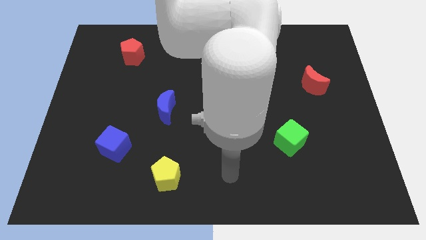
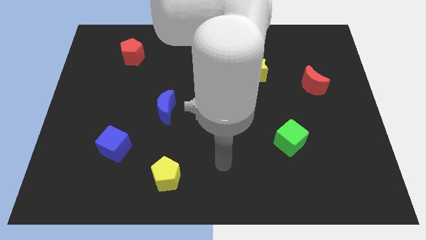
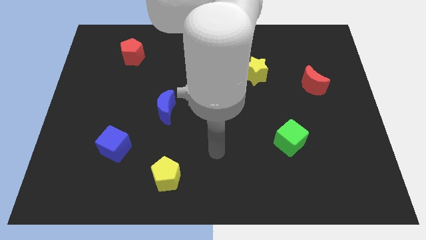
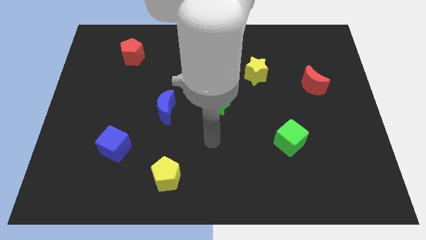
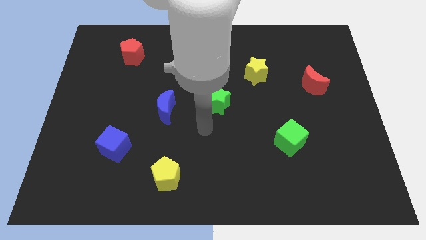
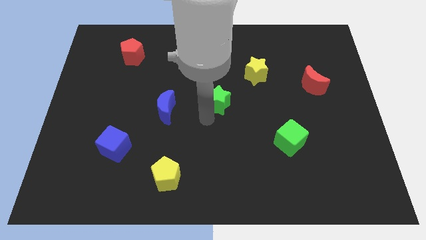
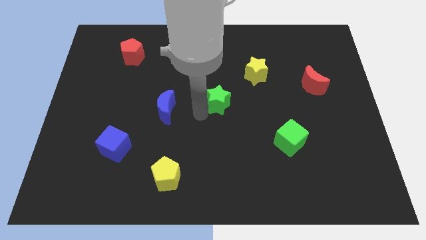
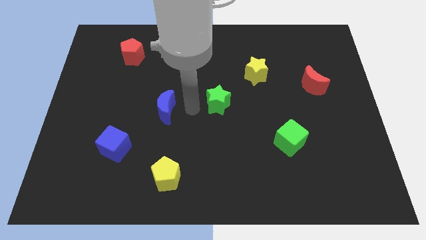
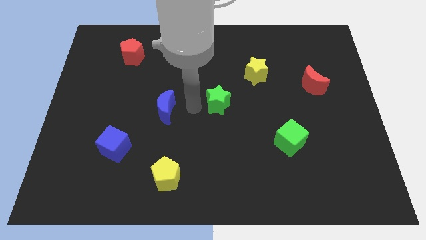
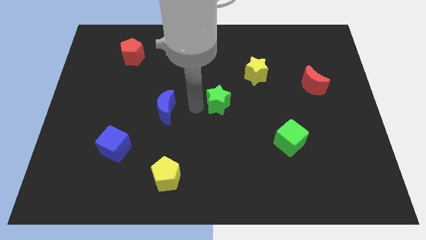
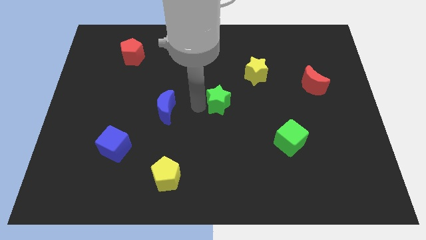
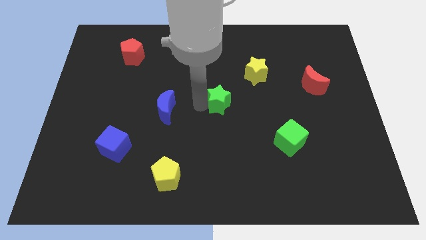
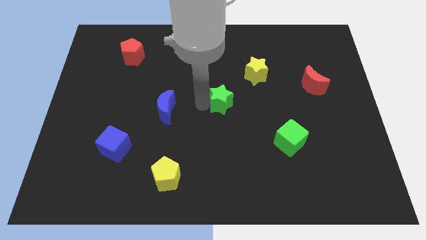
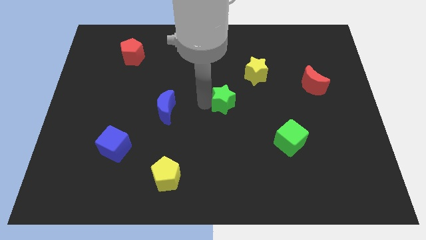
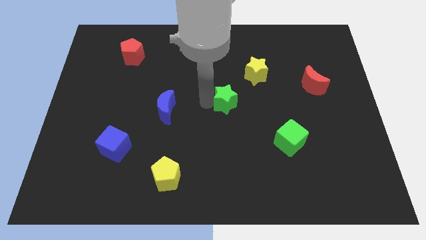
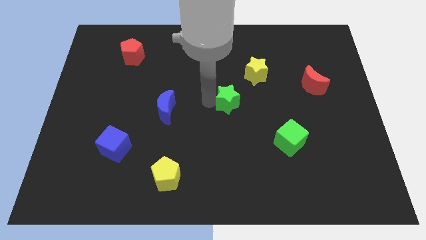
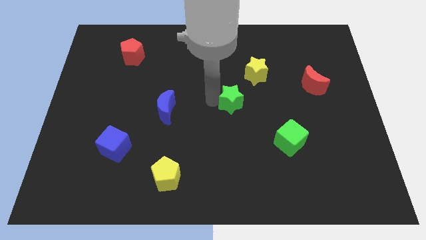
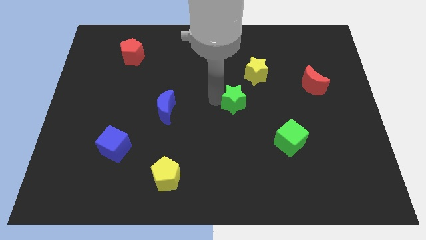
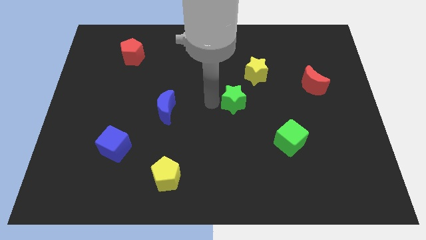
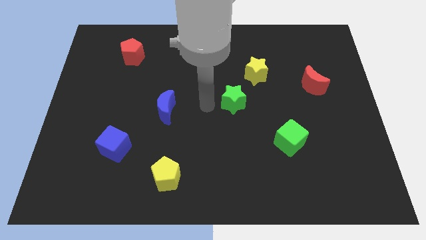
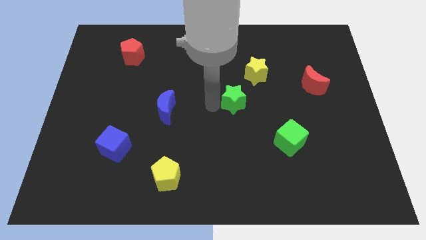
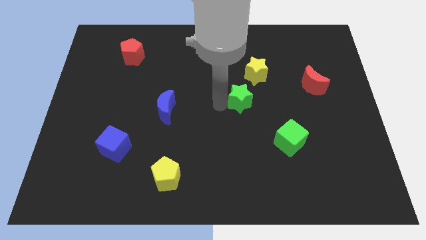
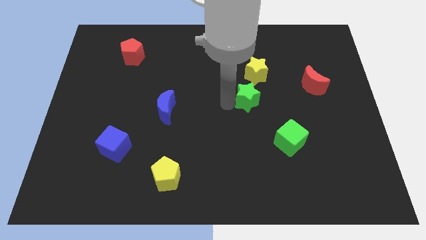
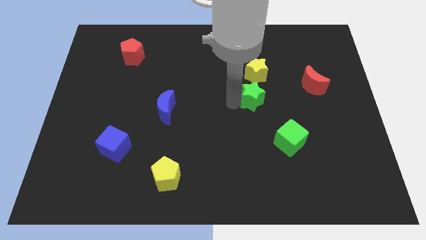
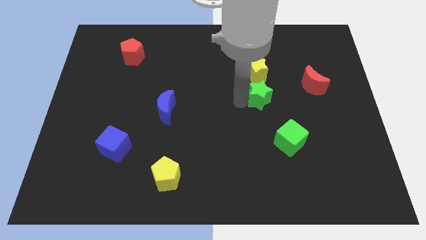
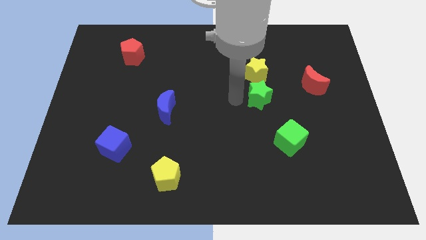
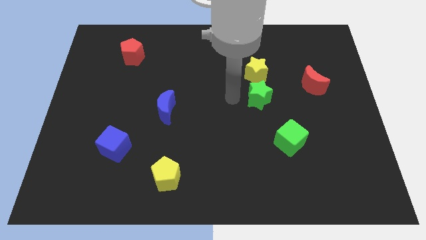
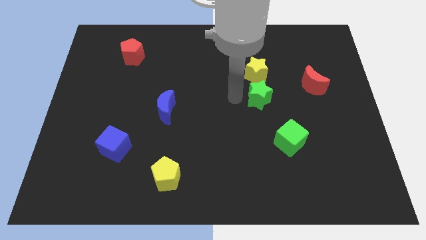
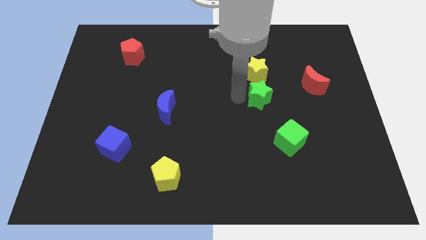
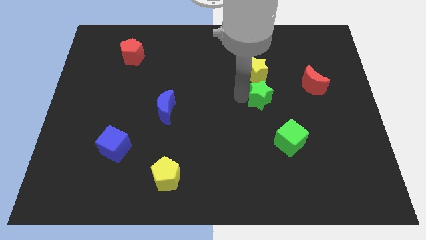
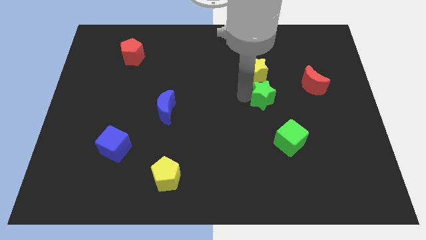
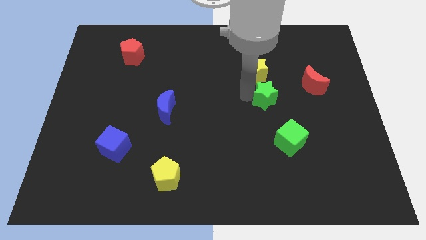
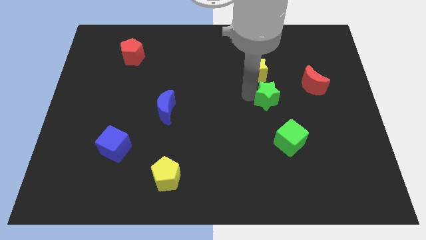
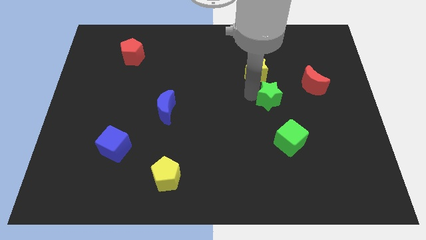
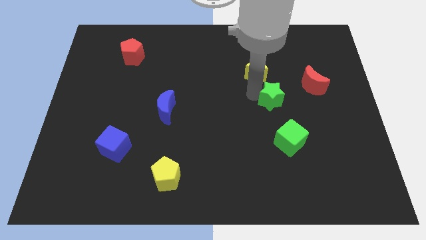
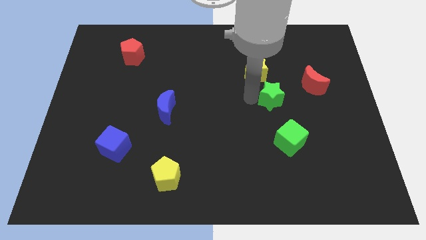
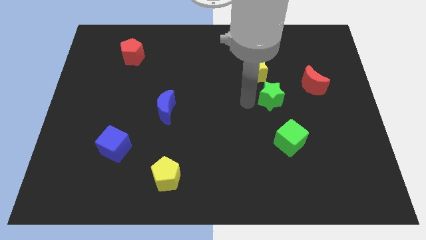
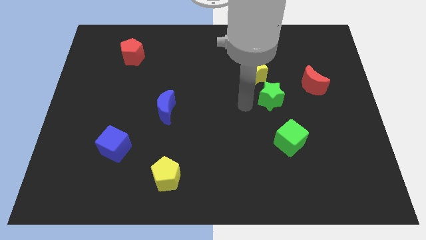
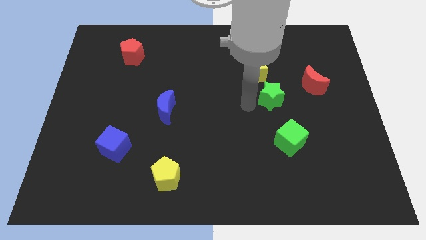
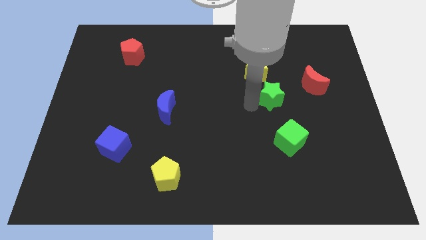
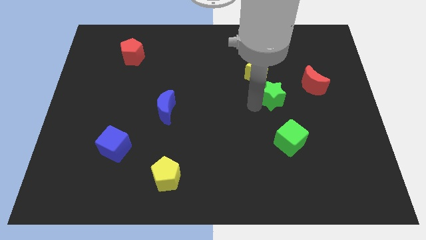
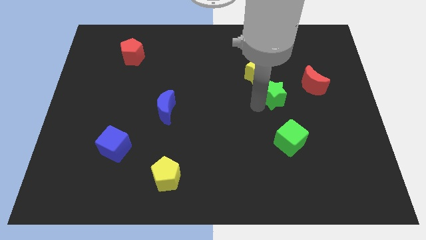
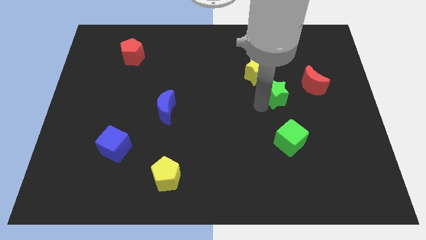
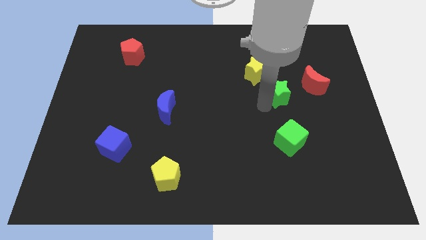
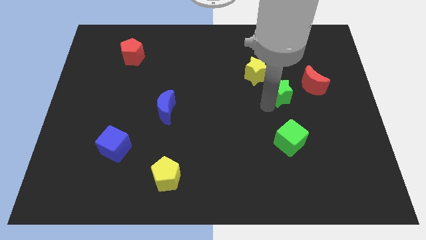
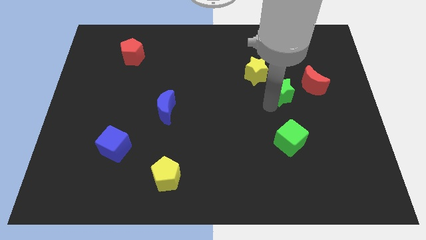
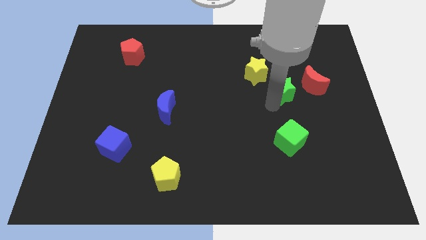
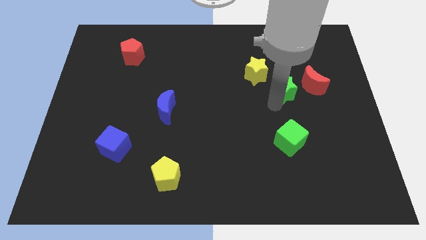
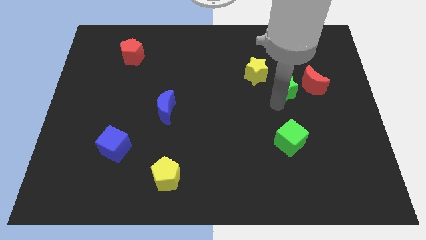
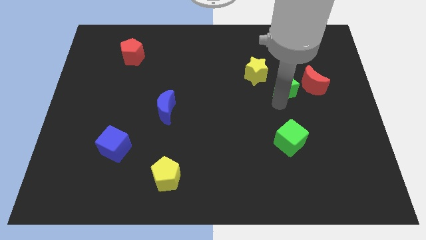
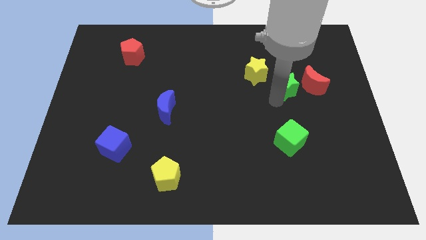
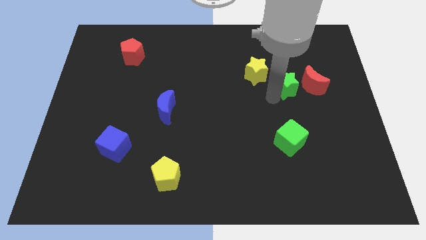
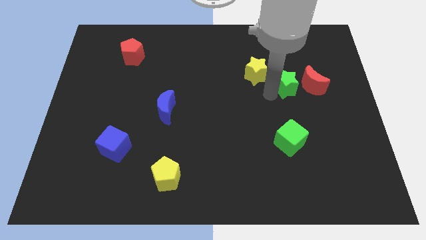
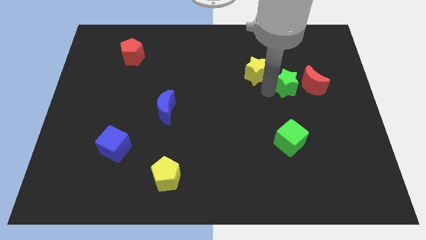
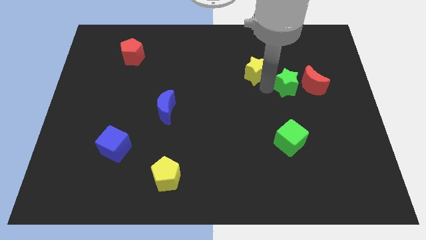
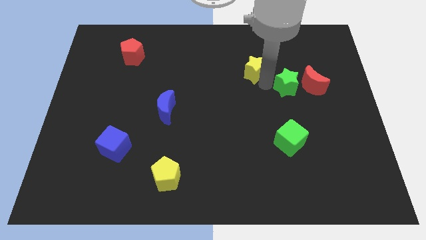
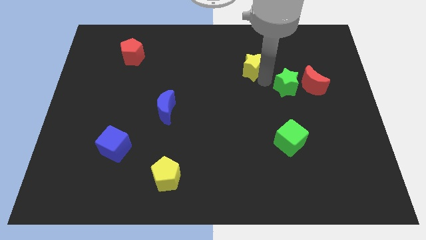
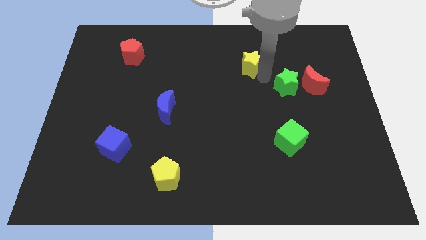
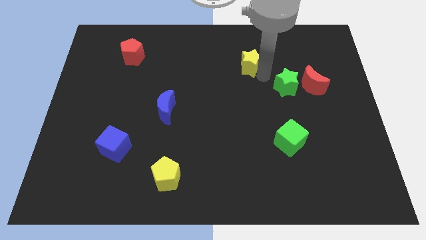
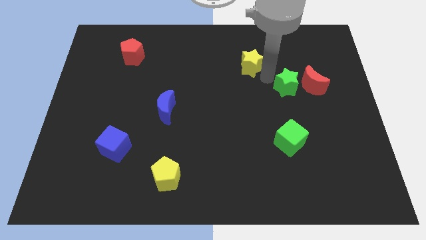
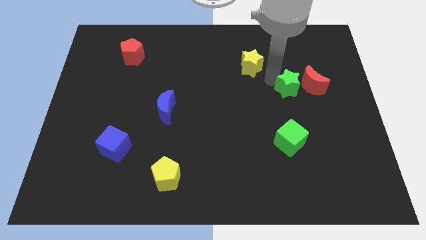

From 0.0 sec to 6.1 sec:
put the green star to the red moon

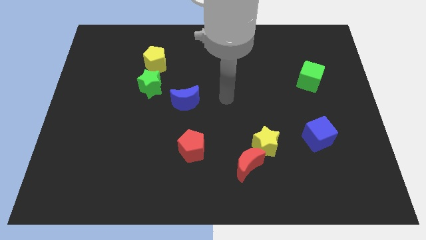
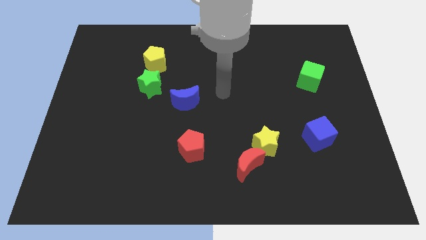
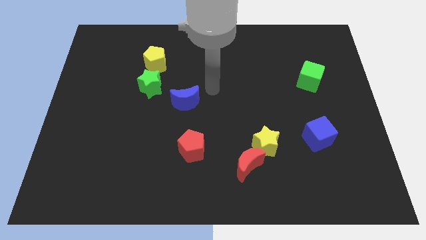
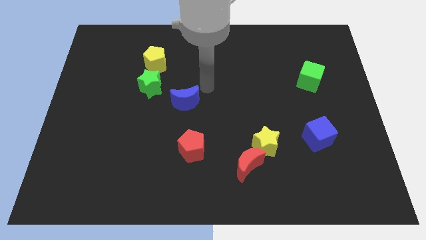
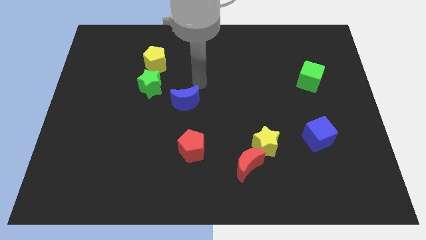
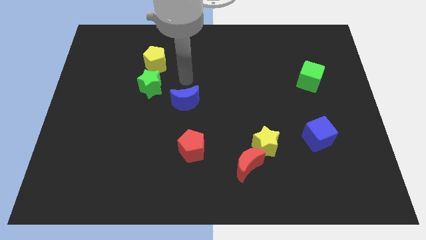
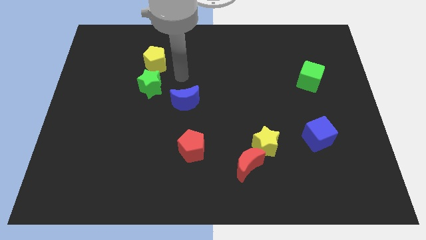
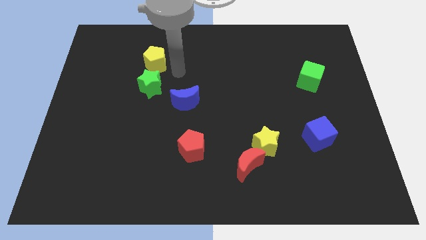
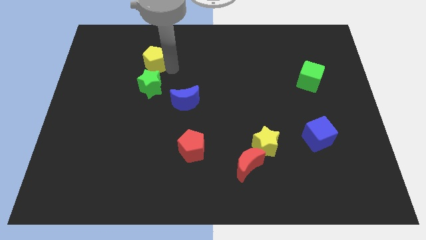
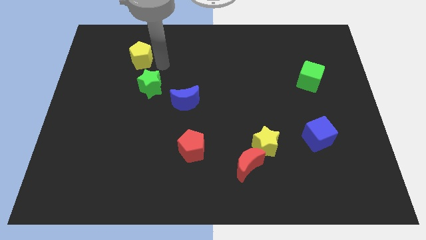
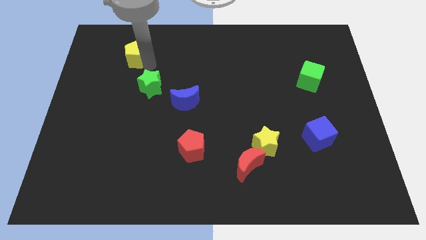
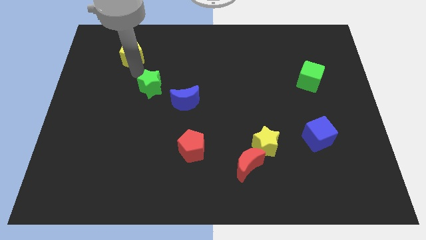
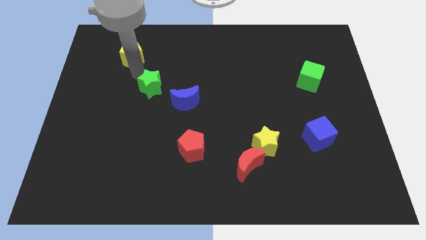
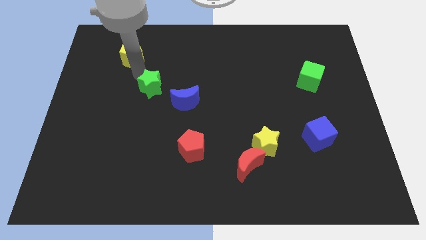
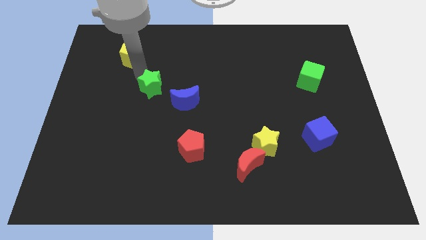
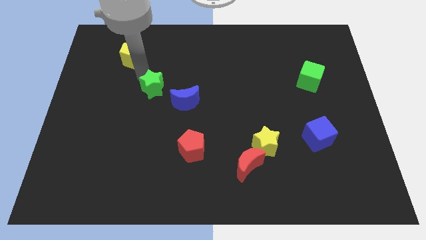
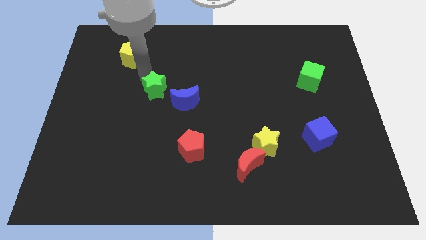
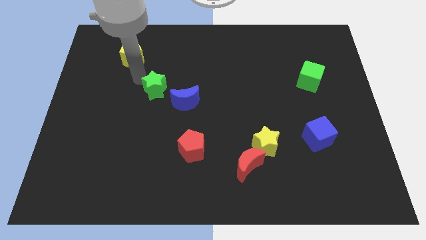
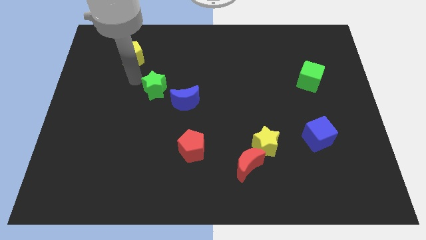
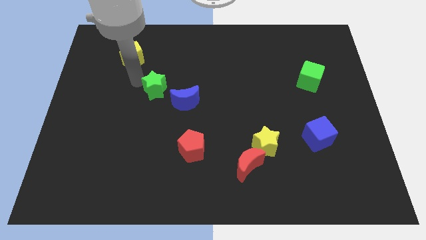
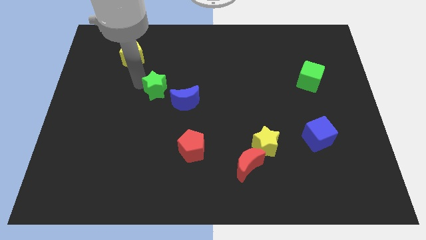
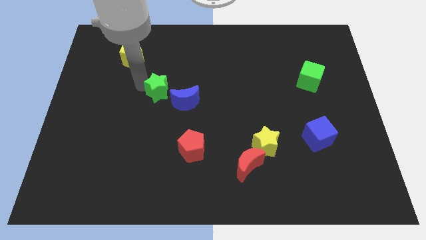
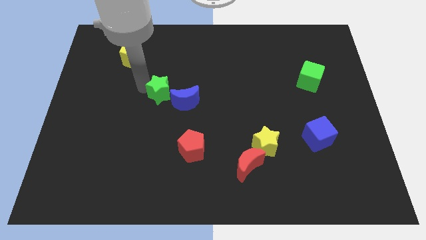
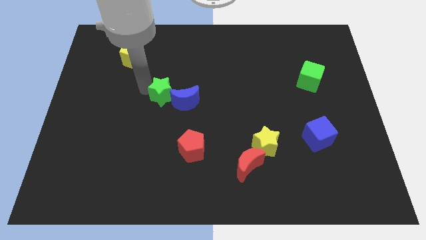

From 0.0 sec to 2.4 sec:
put the green star close to the blue moon
